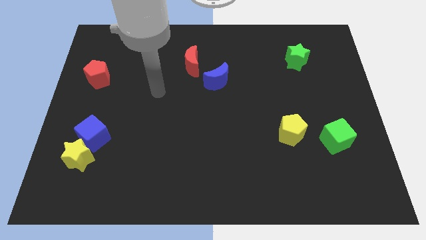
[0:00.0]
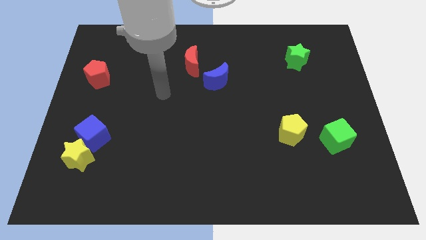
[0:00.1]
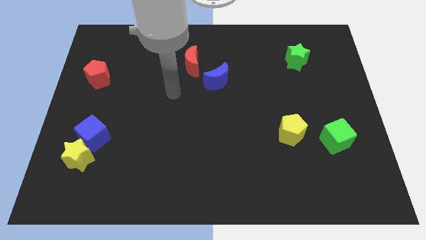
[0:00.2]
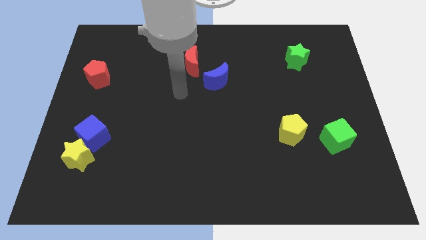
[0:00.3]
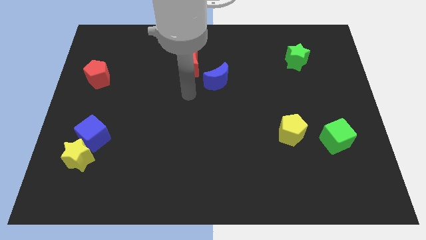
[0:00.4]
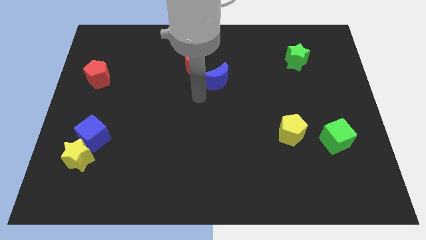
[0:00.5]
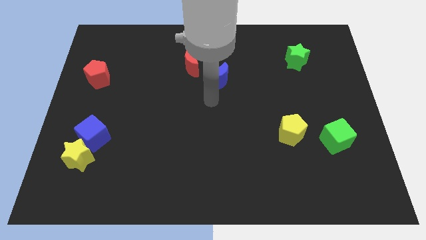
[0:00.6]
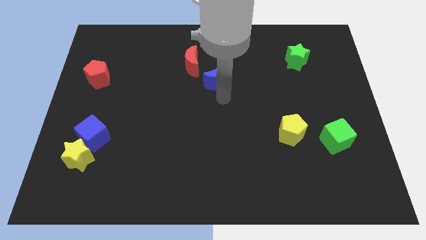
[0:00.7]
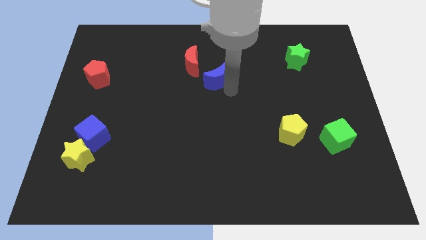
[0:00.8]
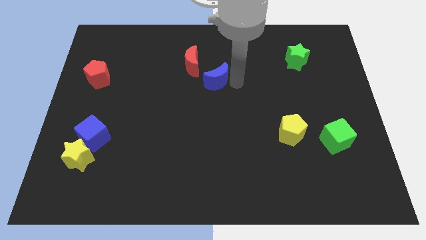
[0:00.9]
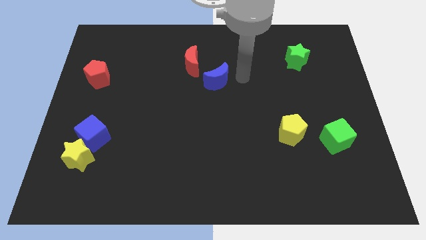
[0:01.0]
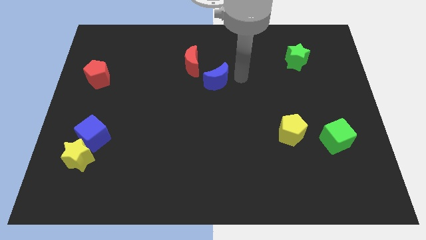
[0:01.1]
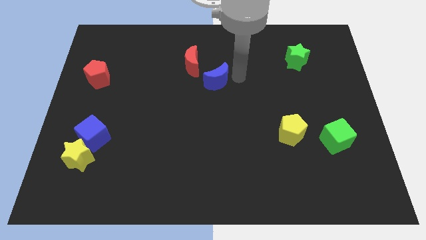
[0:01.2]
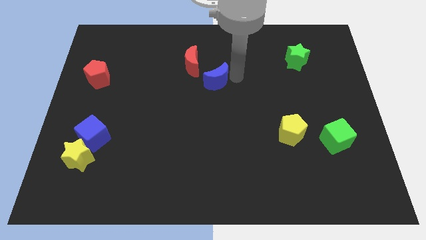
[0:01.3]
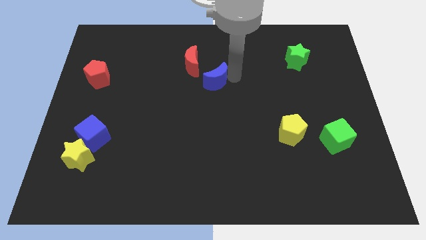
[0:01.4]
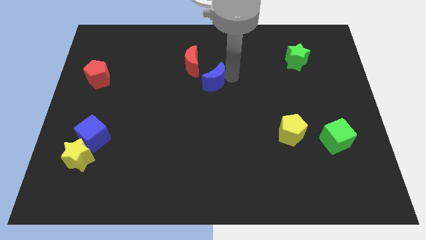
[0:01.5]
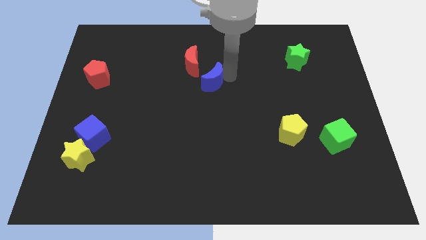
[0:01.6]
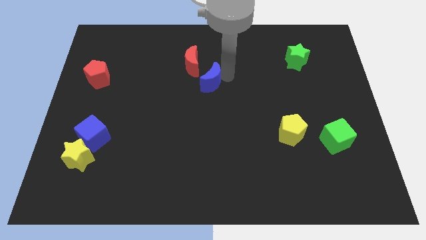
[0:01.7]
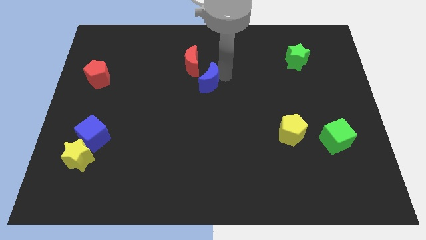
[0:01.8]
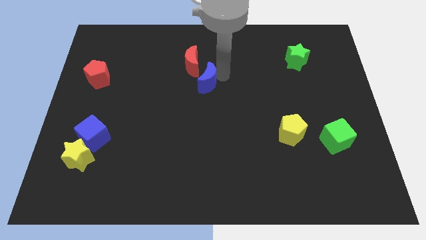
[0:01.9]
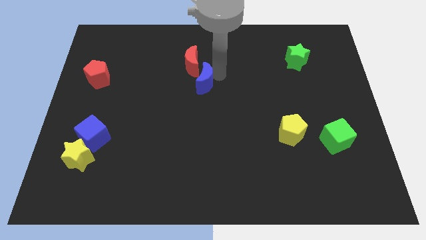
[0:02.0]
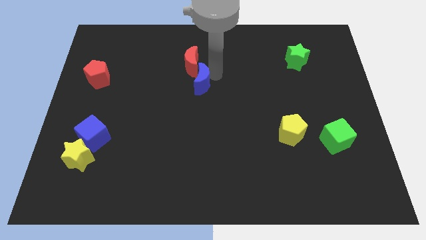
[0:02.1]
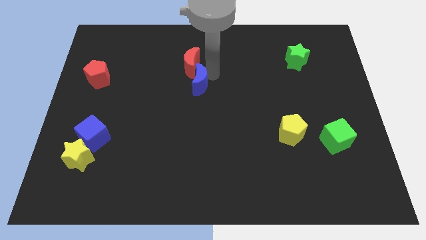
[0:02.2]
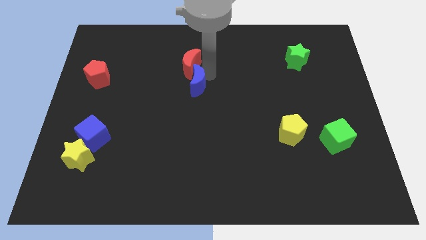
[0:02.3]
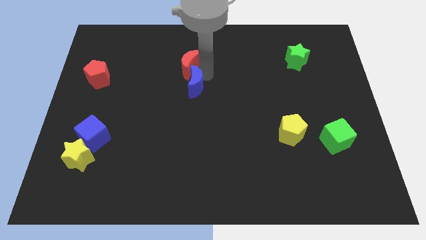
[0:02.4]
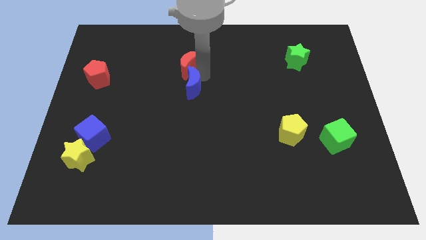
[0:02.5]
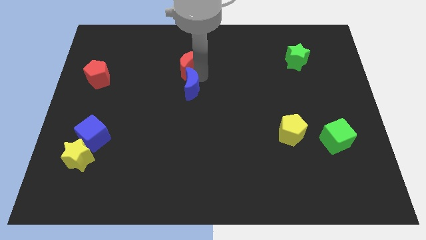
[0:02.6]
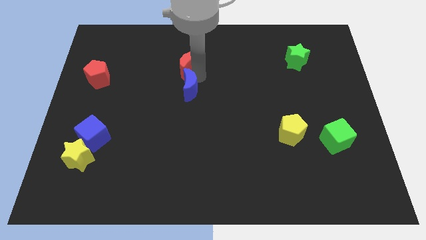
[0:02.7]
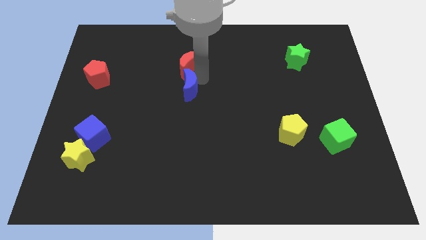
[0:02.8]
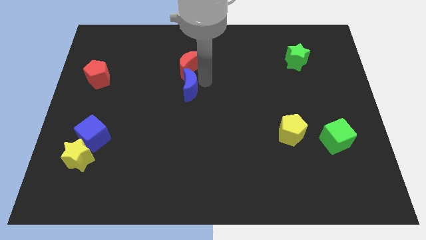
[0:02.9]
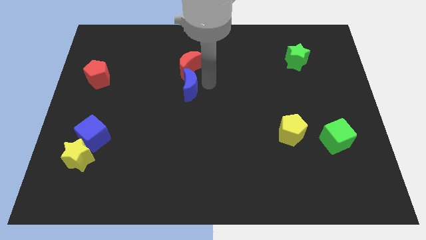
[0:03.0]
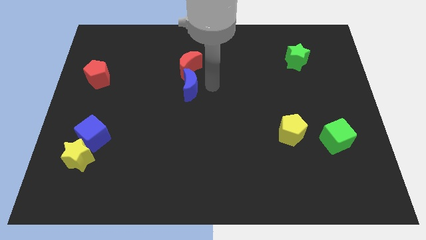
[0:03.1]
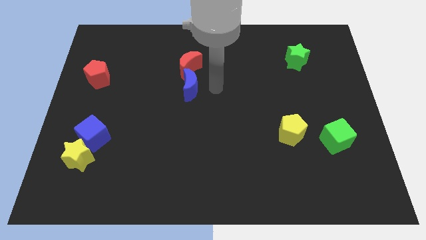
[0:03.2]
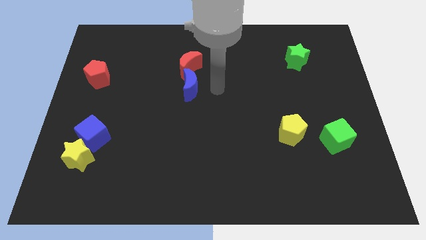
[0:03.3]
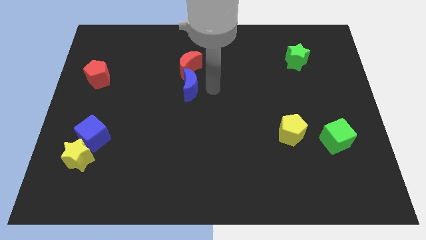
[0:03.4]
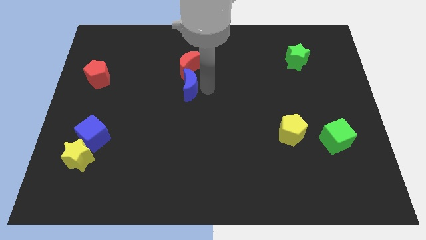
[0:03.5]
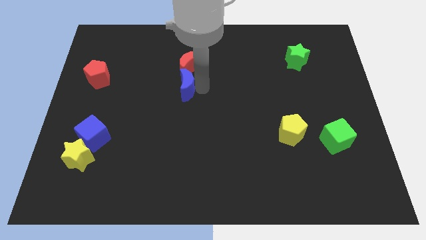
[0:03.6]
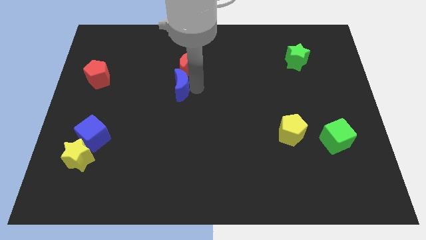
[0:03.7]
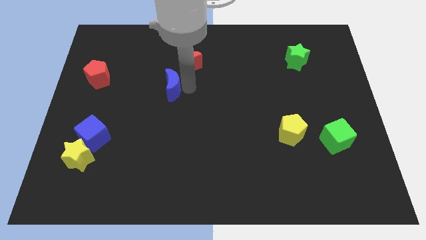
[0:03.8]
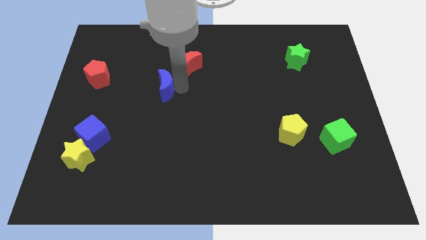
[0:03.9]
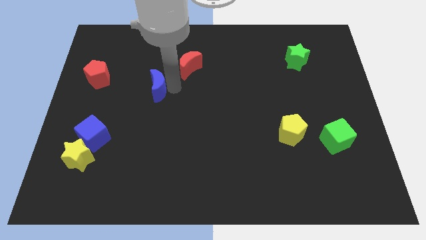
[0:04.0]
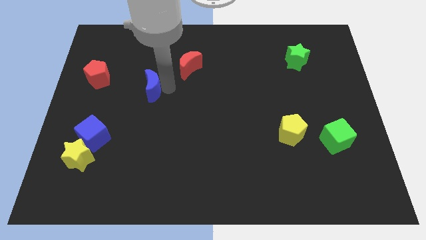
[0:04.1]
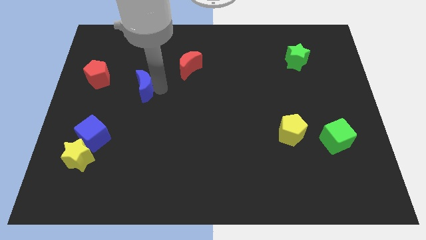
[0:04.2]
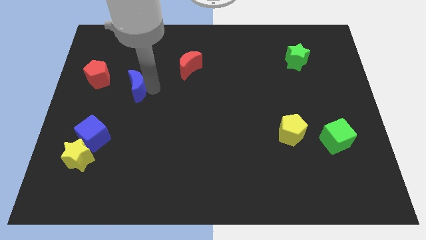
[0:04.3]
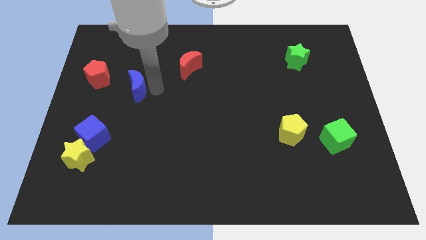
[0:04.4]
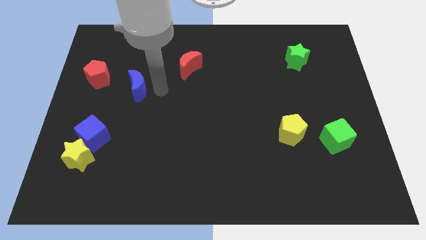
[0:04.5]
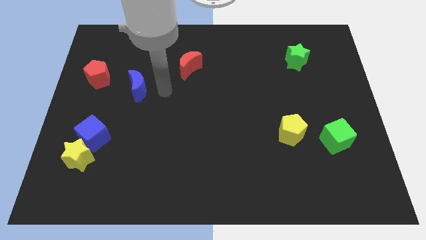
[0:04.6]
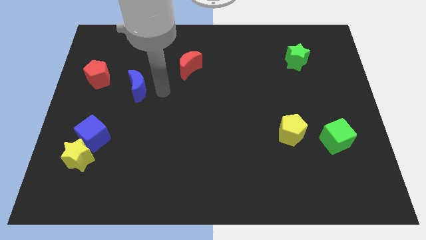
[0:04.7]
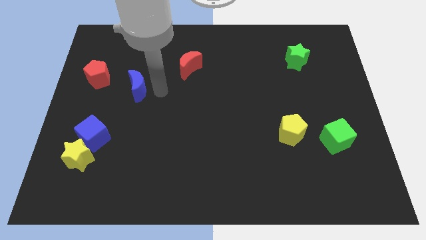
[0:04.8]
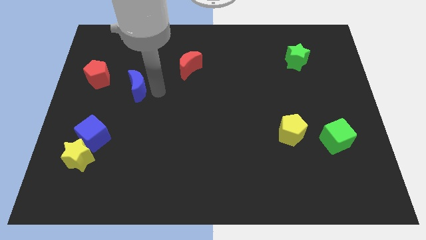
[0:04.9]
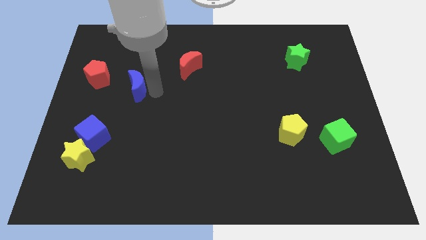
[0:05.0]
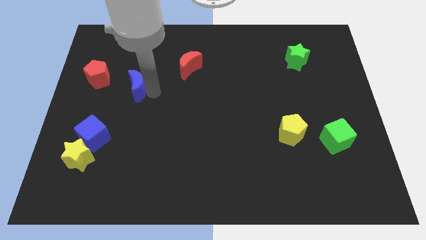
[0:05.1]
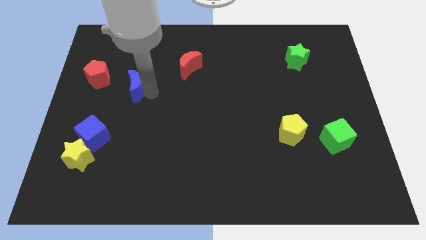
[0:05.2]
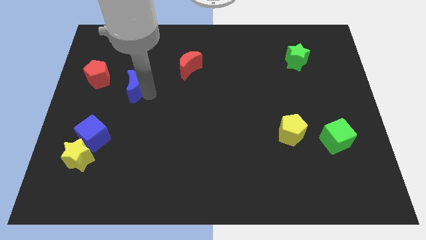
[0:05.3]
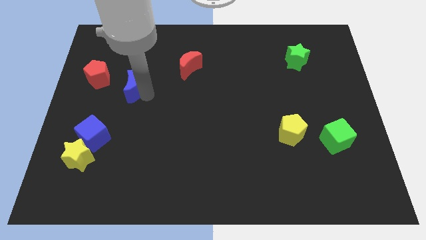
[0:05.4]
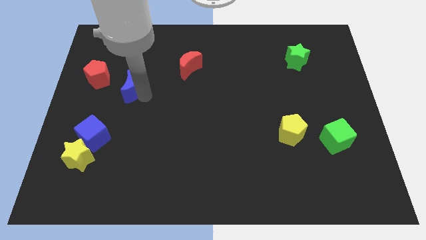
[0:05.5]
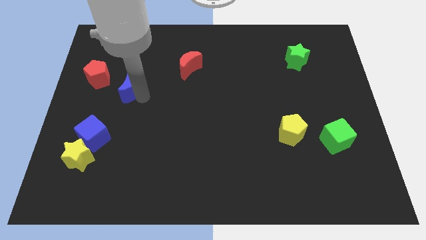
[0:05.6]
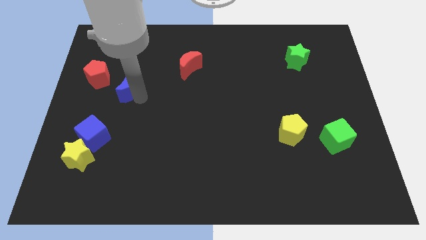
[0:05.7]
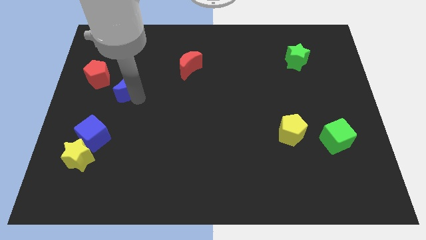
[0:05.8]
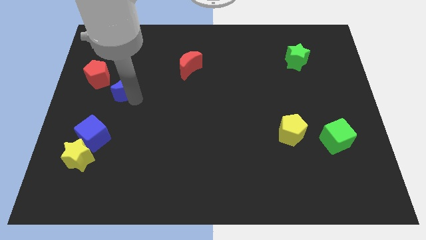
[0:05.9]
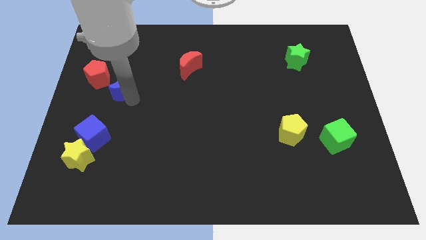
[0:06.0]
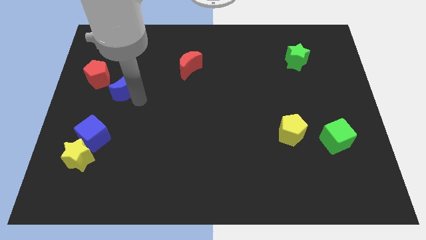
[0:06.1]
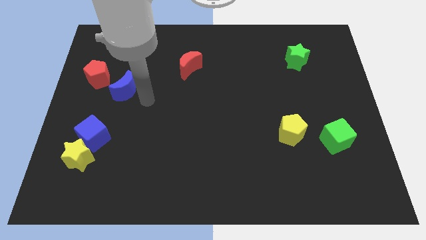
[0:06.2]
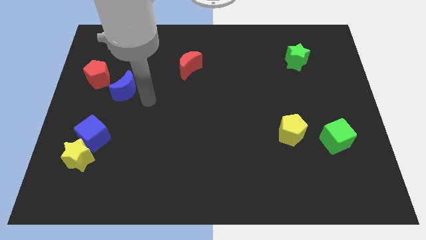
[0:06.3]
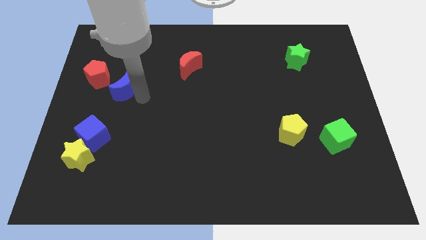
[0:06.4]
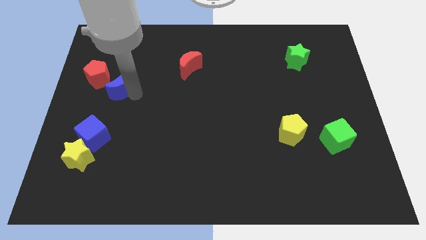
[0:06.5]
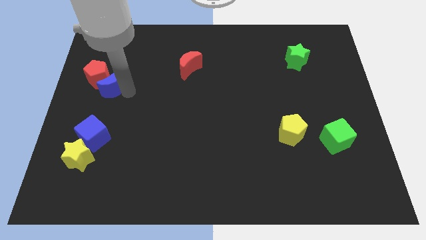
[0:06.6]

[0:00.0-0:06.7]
put the blue moon next to the red pentagon
